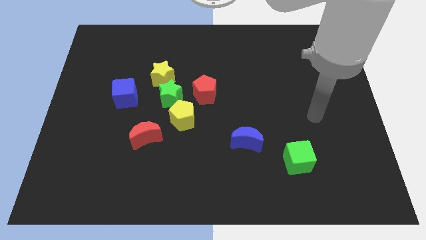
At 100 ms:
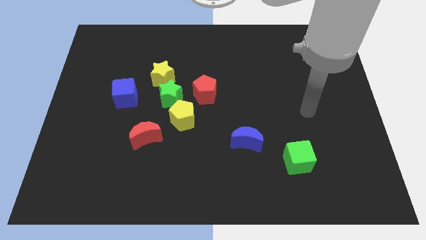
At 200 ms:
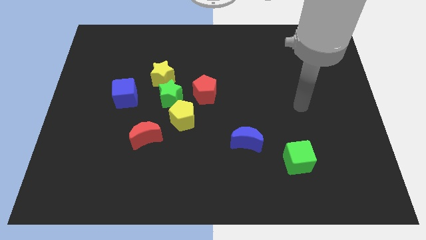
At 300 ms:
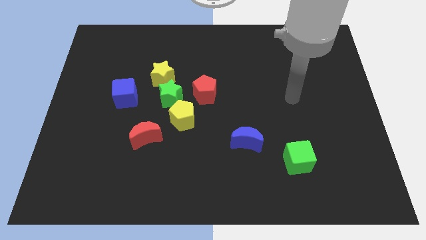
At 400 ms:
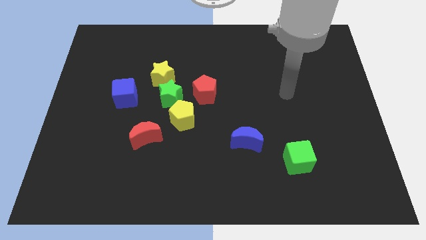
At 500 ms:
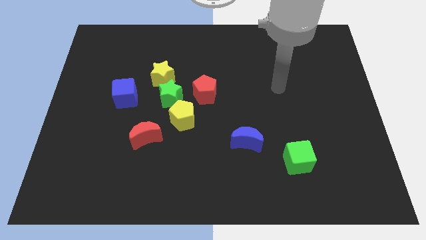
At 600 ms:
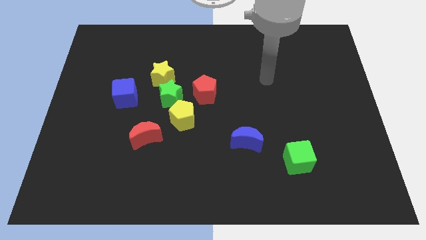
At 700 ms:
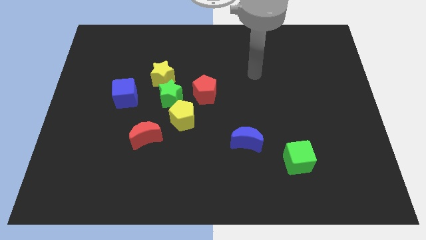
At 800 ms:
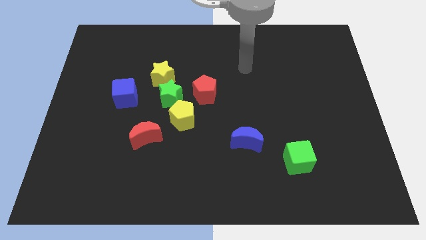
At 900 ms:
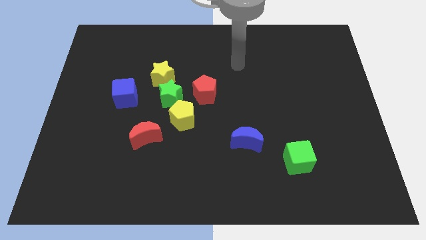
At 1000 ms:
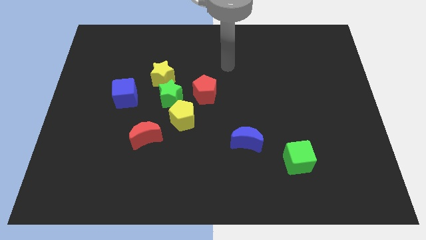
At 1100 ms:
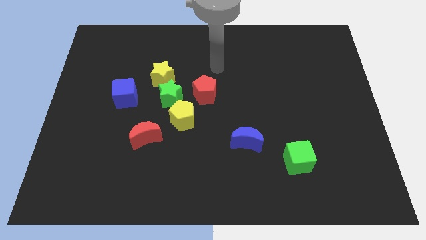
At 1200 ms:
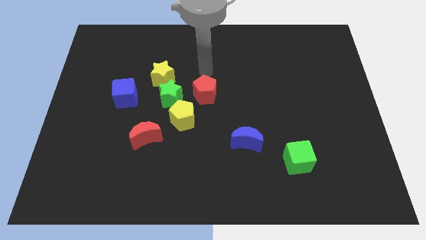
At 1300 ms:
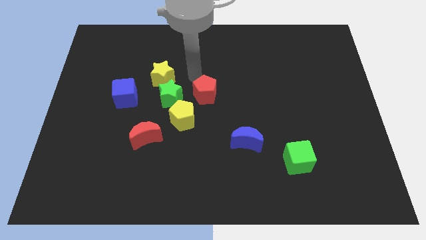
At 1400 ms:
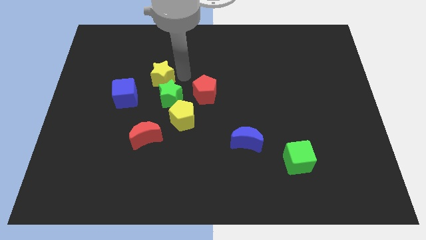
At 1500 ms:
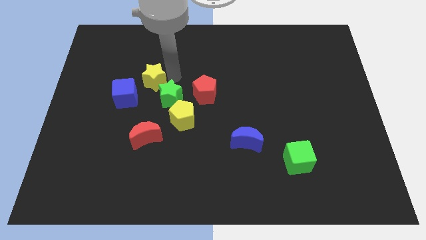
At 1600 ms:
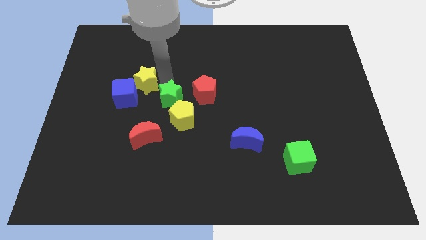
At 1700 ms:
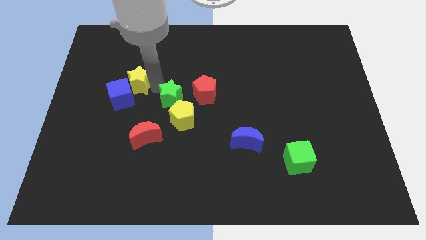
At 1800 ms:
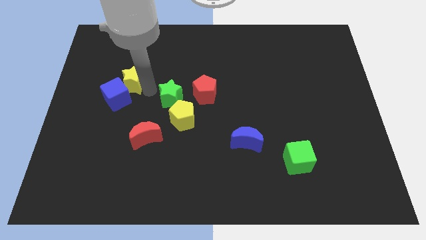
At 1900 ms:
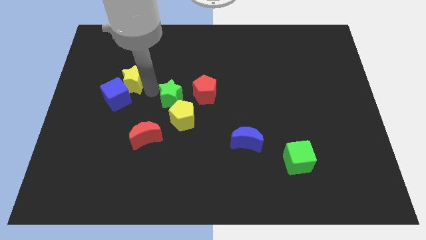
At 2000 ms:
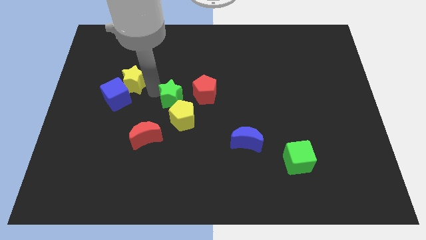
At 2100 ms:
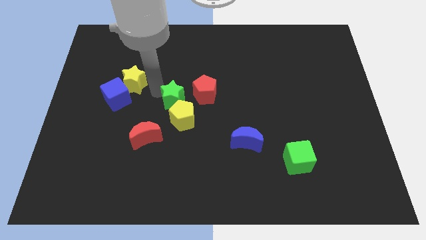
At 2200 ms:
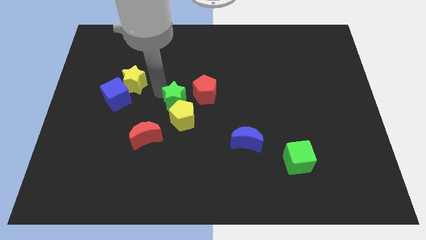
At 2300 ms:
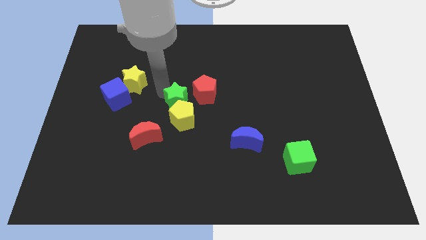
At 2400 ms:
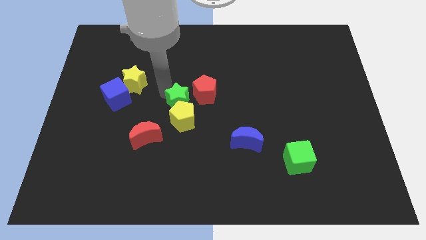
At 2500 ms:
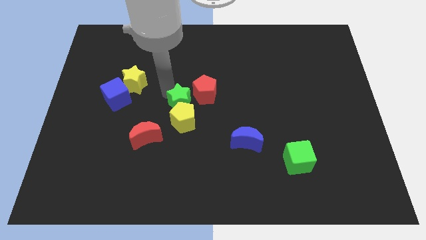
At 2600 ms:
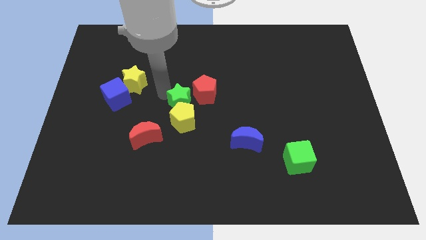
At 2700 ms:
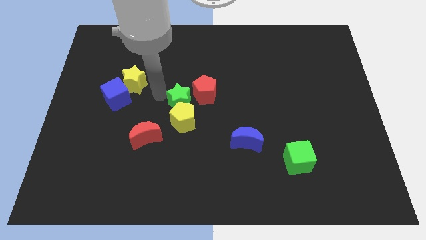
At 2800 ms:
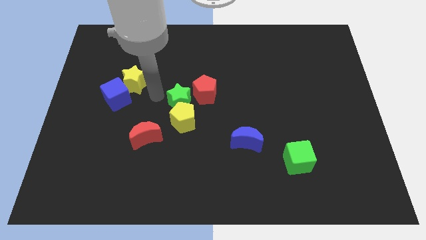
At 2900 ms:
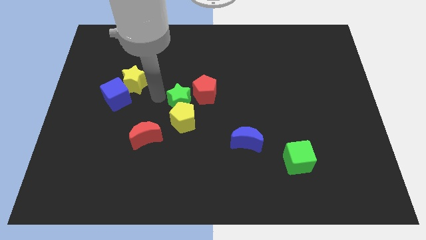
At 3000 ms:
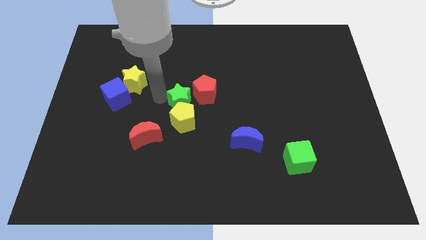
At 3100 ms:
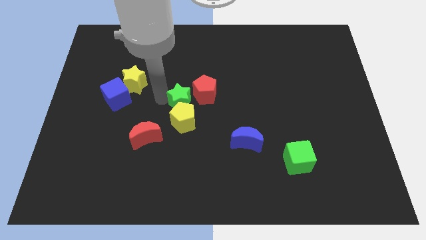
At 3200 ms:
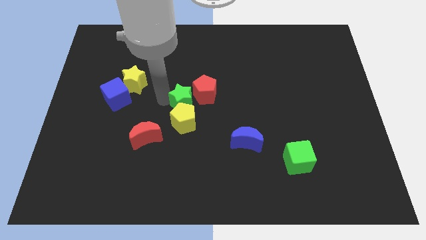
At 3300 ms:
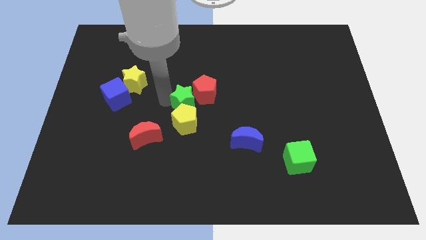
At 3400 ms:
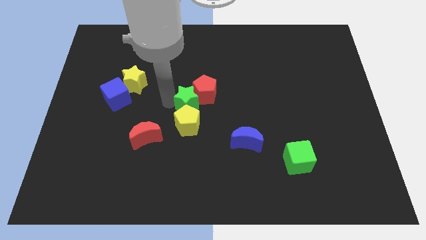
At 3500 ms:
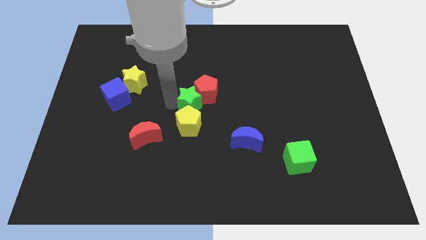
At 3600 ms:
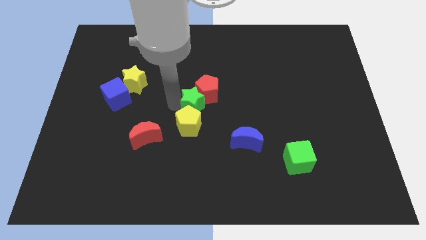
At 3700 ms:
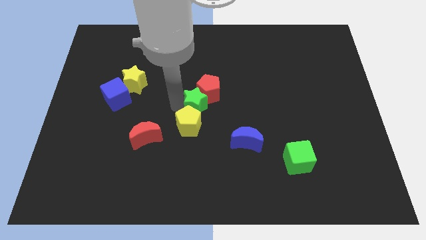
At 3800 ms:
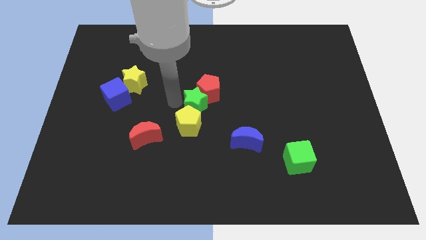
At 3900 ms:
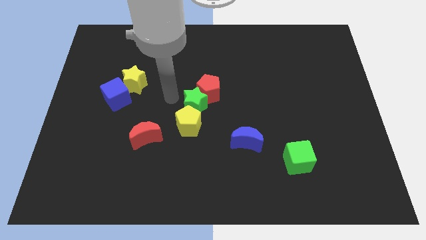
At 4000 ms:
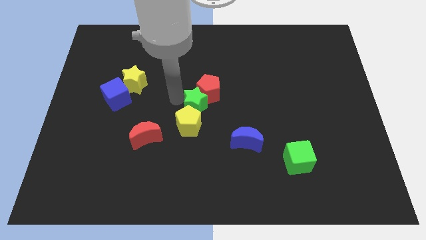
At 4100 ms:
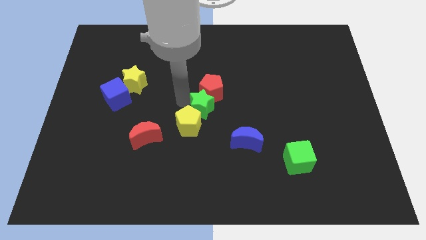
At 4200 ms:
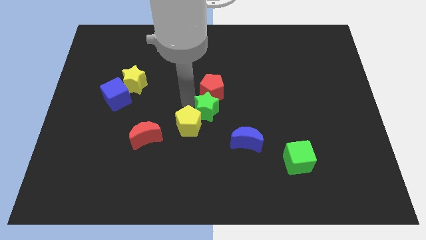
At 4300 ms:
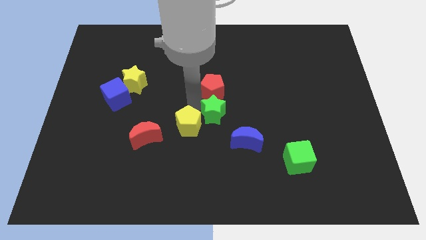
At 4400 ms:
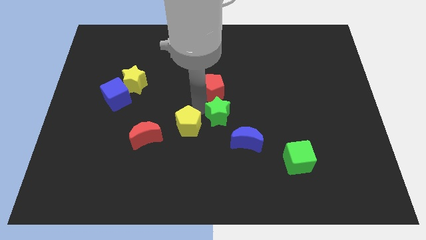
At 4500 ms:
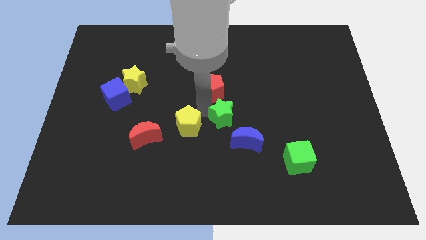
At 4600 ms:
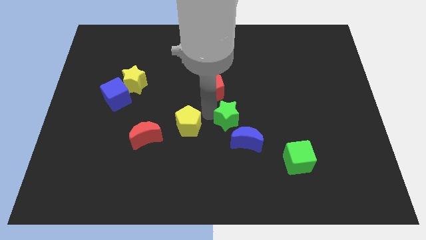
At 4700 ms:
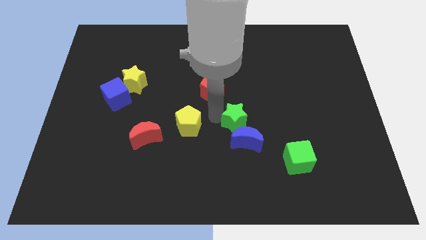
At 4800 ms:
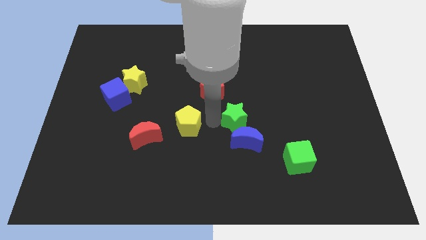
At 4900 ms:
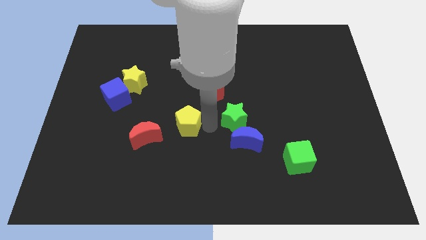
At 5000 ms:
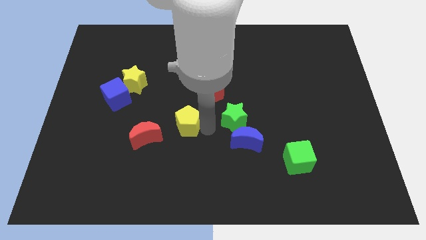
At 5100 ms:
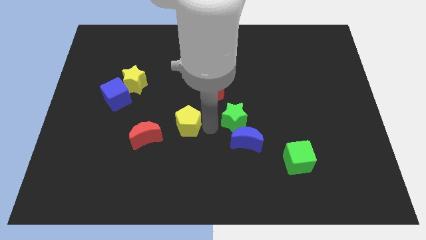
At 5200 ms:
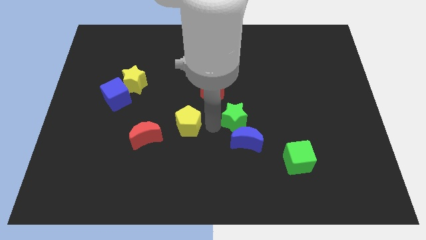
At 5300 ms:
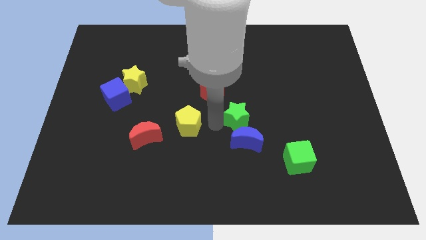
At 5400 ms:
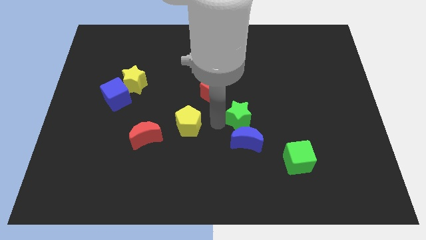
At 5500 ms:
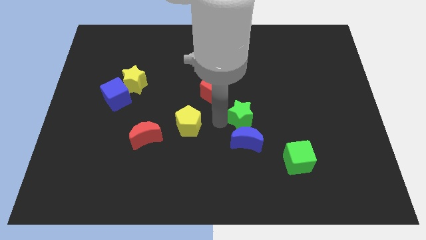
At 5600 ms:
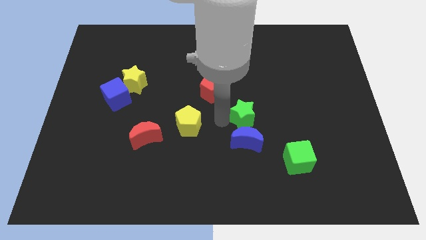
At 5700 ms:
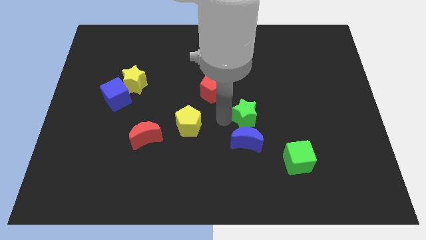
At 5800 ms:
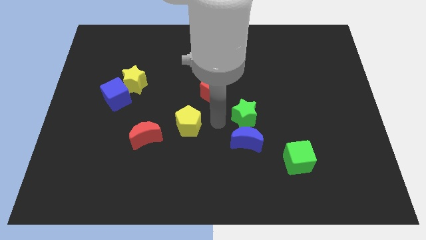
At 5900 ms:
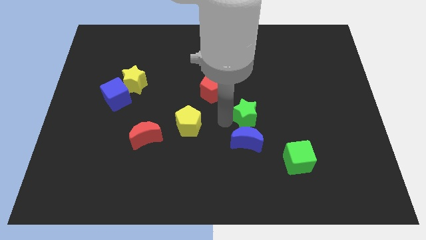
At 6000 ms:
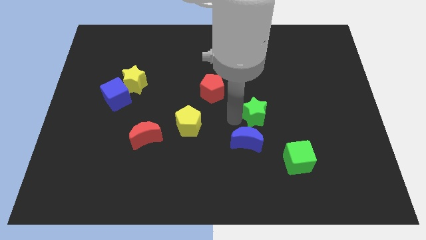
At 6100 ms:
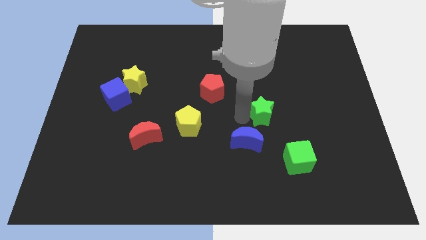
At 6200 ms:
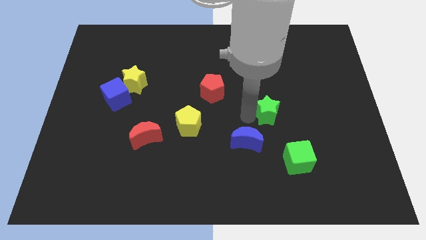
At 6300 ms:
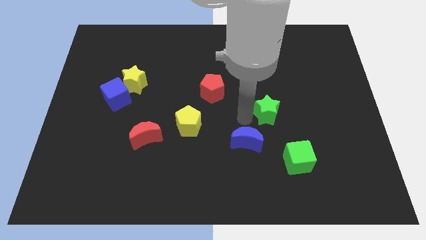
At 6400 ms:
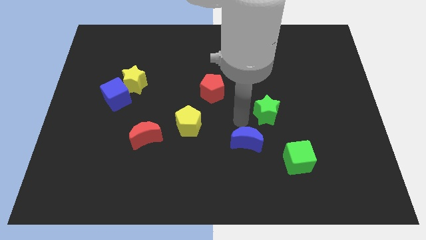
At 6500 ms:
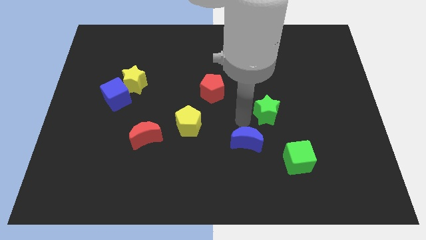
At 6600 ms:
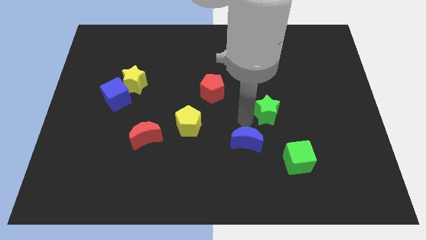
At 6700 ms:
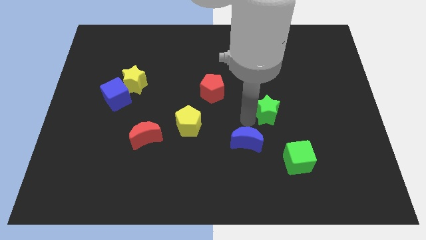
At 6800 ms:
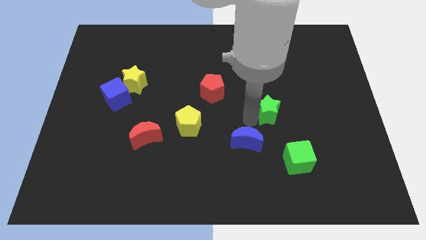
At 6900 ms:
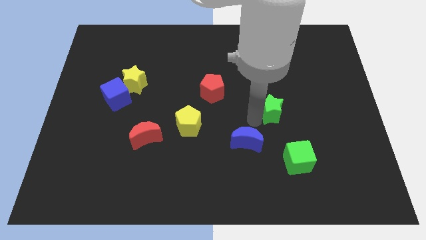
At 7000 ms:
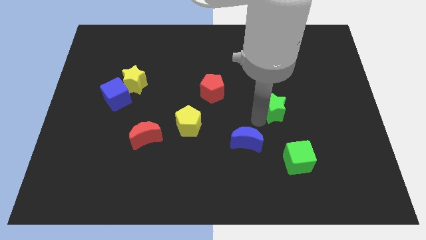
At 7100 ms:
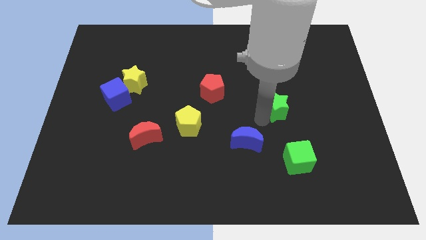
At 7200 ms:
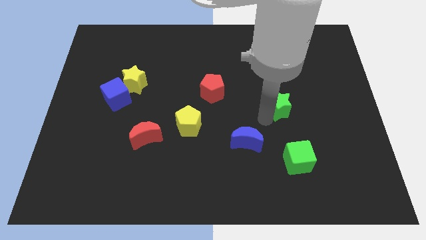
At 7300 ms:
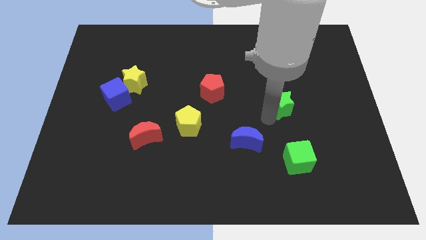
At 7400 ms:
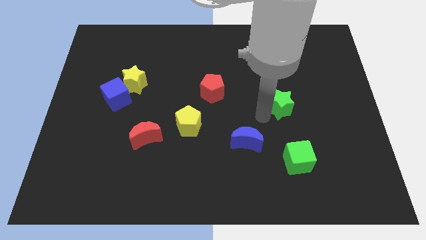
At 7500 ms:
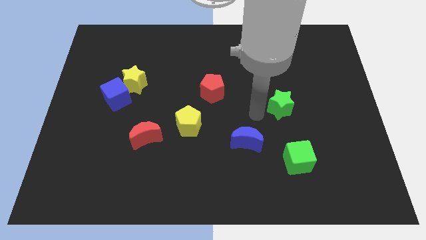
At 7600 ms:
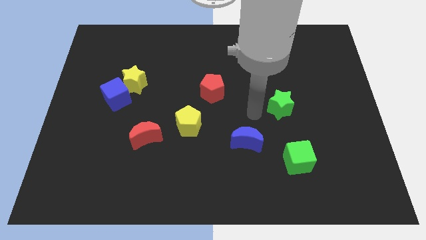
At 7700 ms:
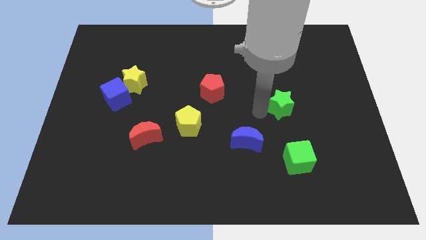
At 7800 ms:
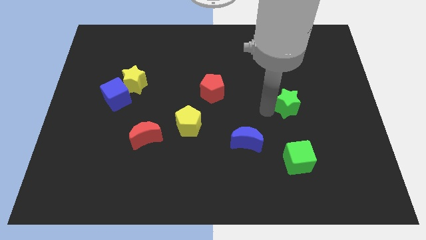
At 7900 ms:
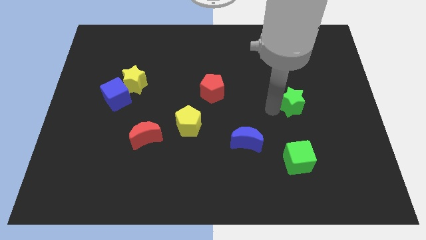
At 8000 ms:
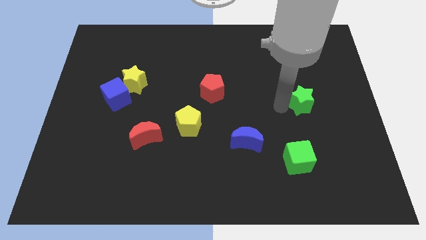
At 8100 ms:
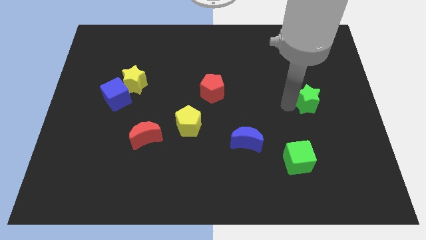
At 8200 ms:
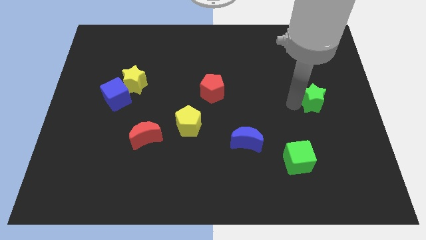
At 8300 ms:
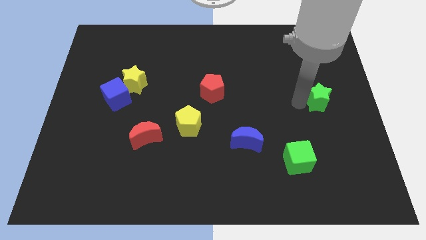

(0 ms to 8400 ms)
slide the green star to the right side of the board
